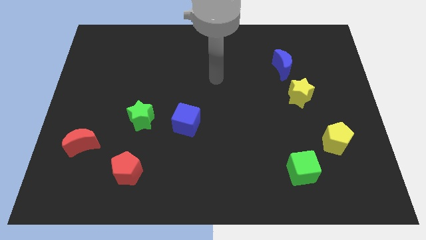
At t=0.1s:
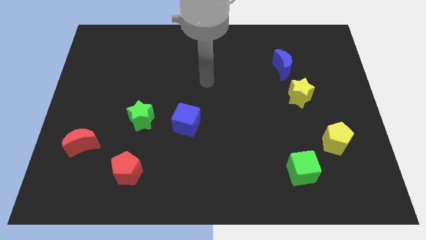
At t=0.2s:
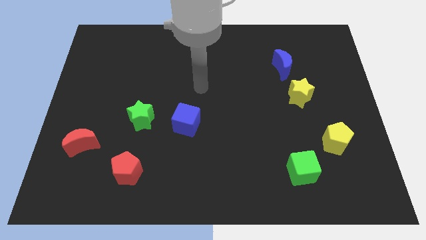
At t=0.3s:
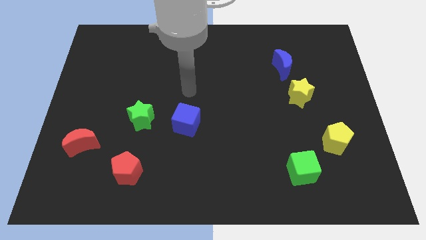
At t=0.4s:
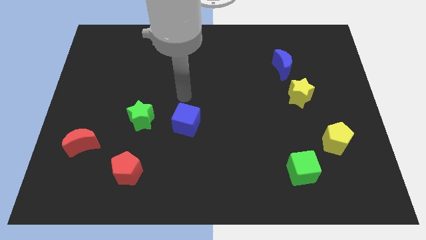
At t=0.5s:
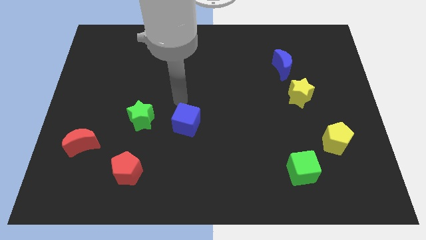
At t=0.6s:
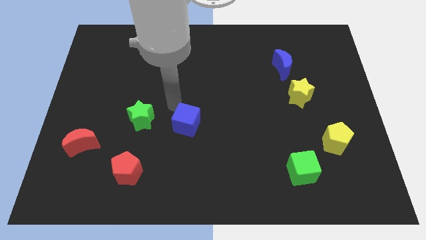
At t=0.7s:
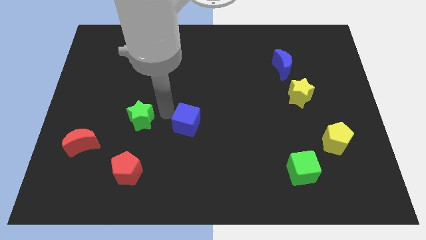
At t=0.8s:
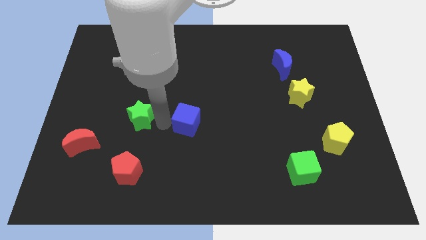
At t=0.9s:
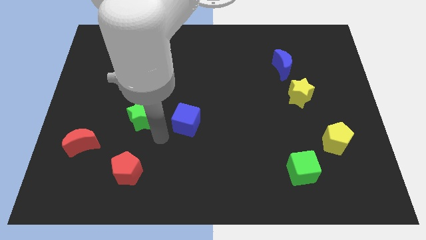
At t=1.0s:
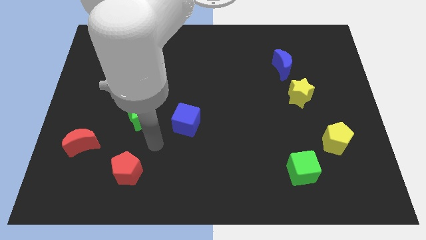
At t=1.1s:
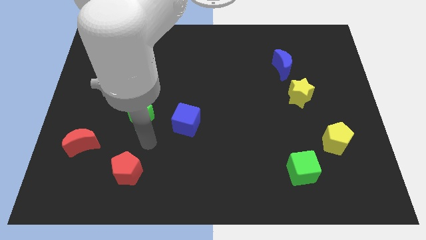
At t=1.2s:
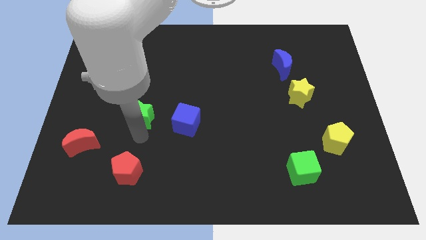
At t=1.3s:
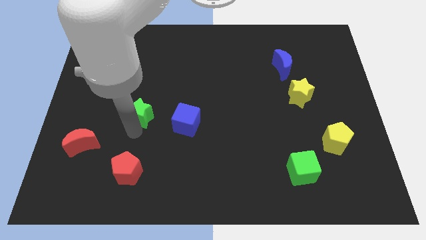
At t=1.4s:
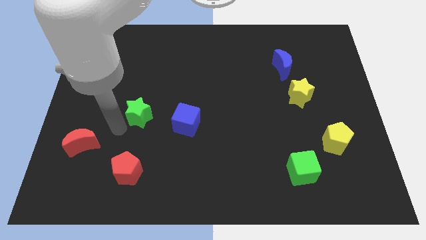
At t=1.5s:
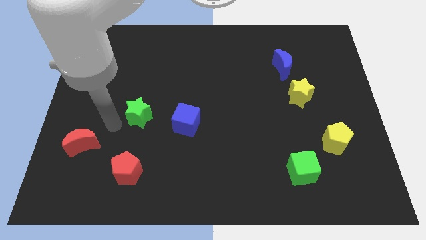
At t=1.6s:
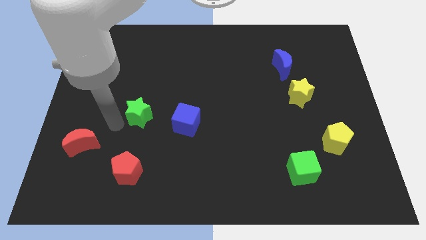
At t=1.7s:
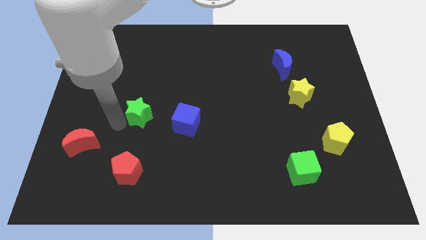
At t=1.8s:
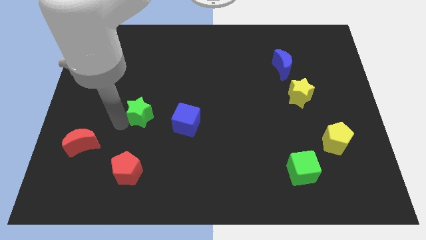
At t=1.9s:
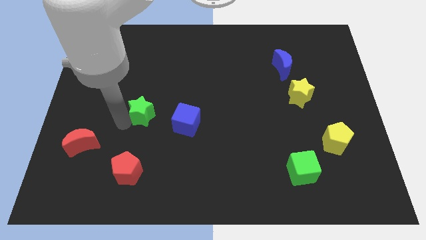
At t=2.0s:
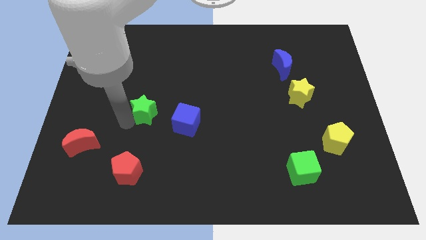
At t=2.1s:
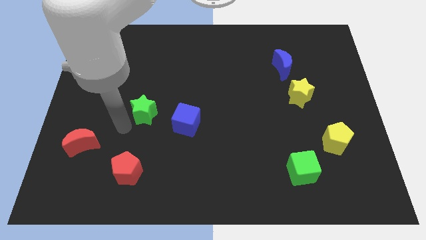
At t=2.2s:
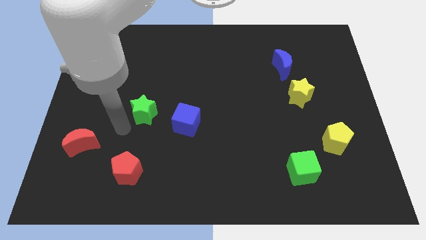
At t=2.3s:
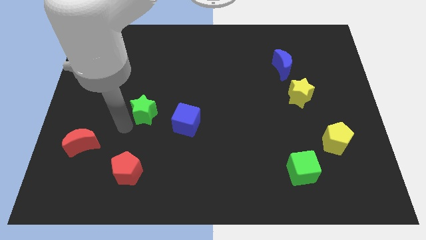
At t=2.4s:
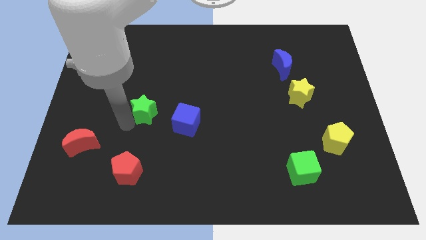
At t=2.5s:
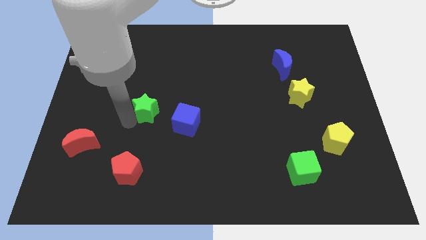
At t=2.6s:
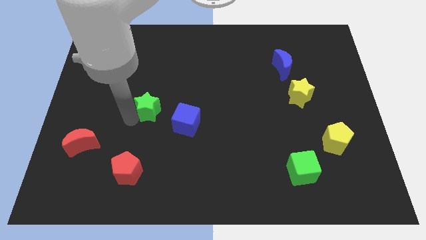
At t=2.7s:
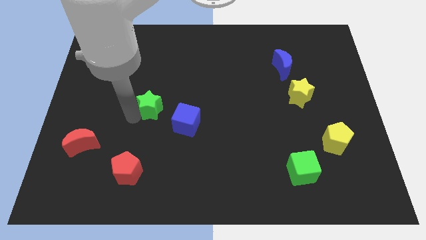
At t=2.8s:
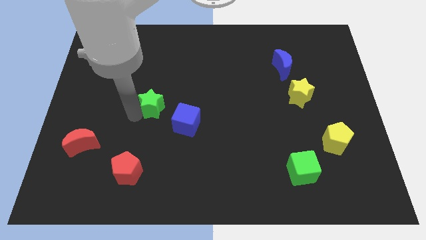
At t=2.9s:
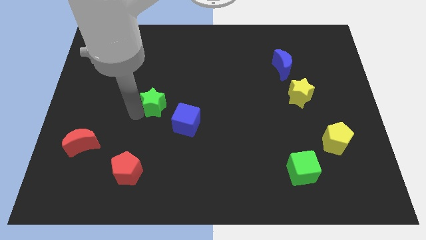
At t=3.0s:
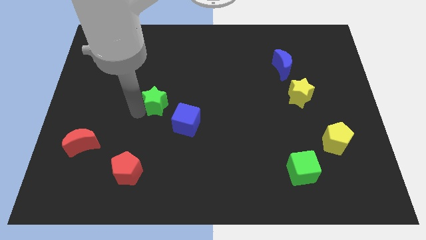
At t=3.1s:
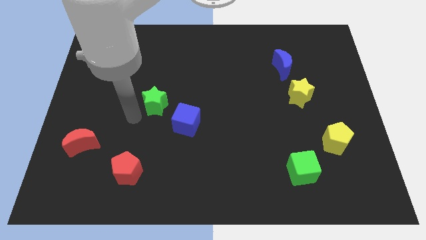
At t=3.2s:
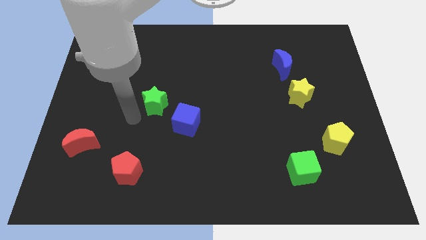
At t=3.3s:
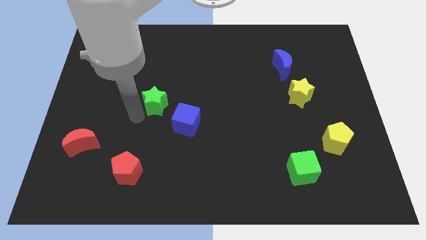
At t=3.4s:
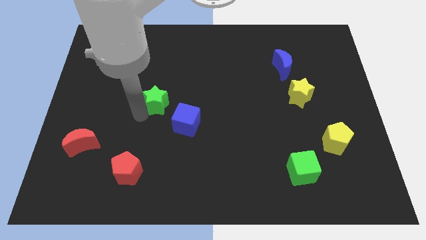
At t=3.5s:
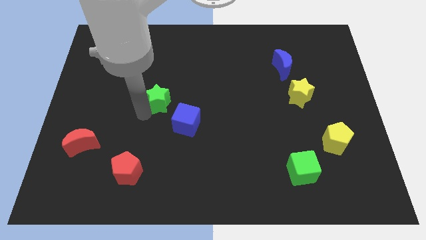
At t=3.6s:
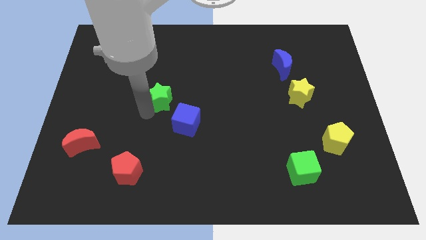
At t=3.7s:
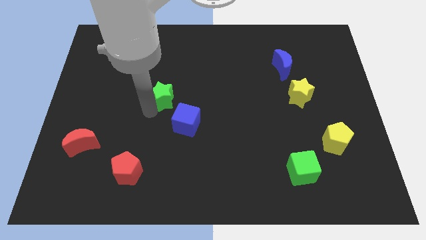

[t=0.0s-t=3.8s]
move the green star diagonally up and right slightly

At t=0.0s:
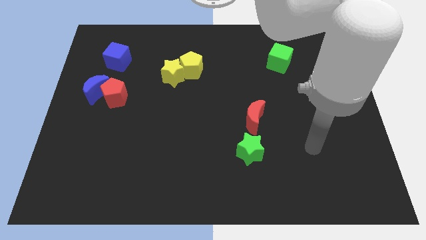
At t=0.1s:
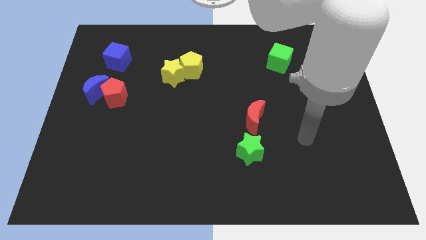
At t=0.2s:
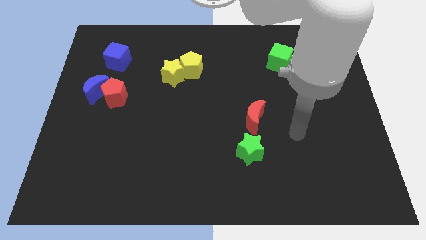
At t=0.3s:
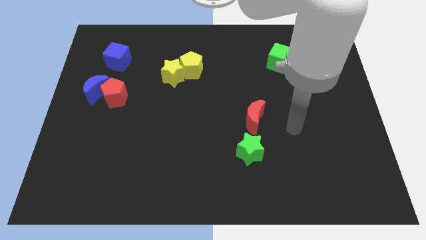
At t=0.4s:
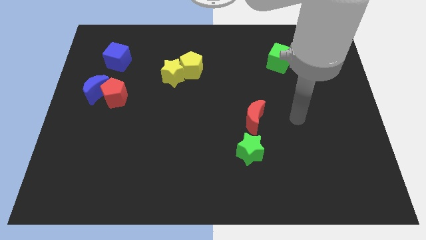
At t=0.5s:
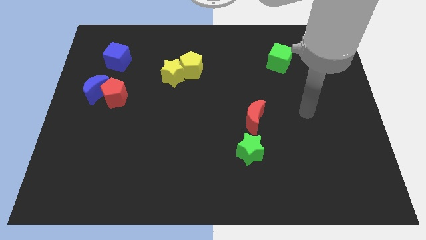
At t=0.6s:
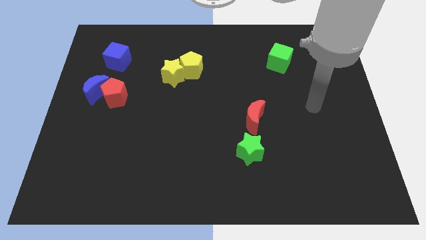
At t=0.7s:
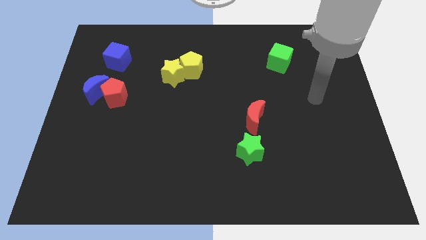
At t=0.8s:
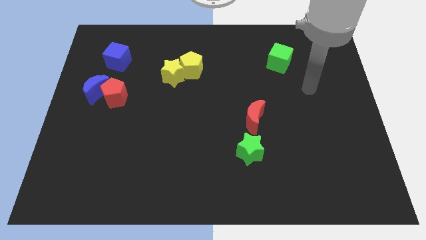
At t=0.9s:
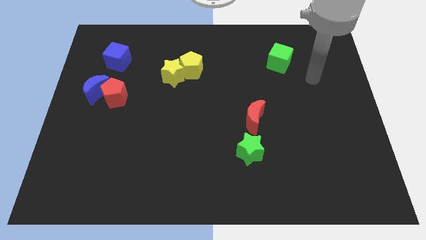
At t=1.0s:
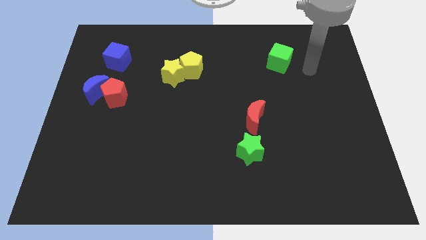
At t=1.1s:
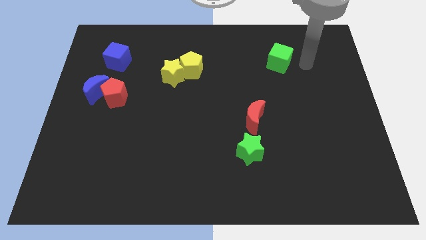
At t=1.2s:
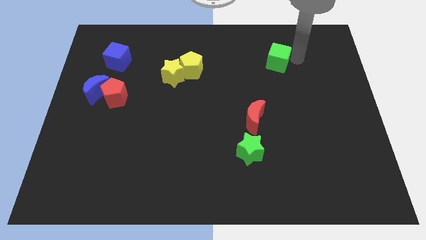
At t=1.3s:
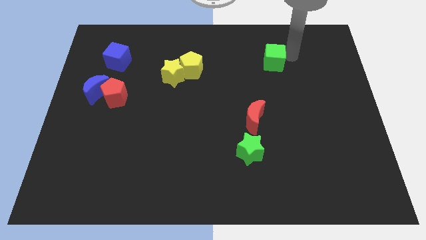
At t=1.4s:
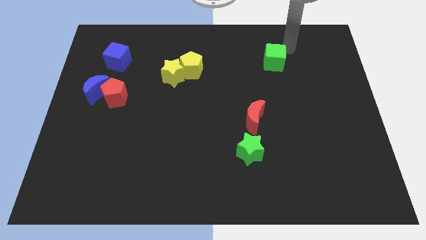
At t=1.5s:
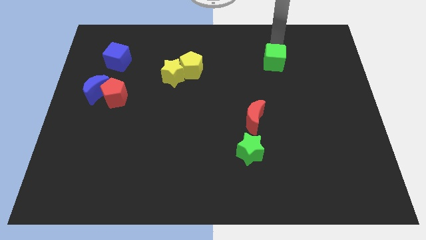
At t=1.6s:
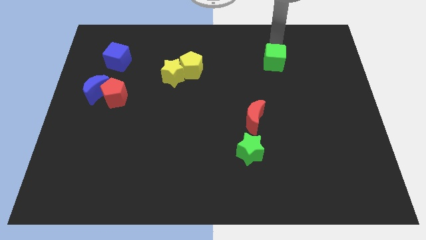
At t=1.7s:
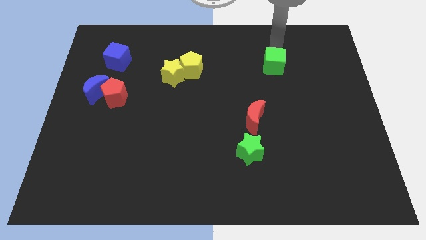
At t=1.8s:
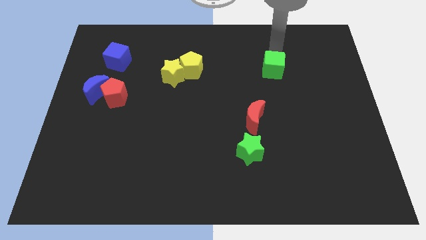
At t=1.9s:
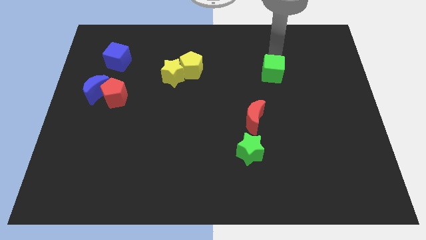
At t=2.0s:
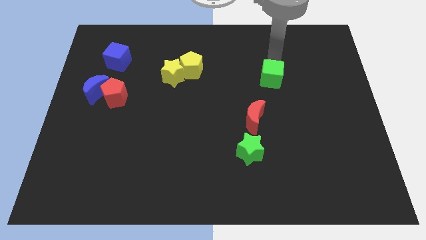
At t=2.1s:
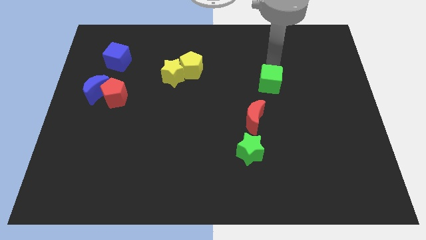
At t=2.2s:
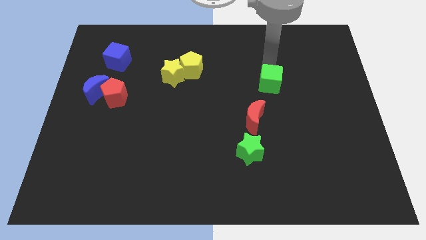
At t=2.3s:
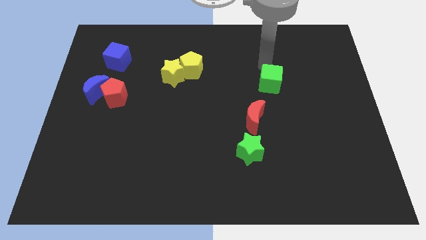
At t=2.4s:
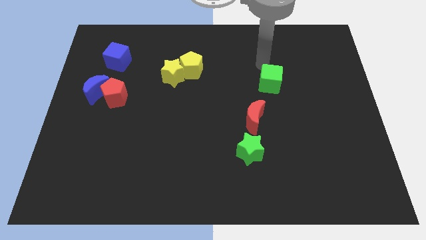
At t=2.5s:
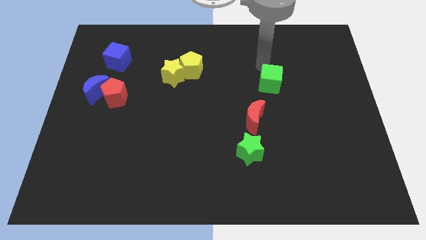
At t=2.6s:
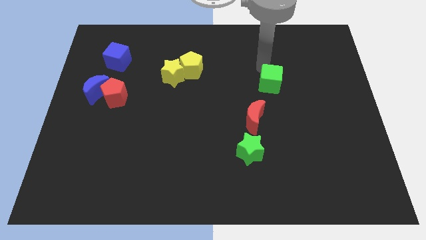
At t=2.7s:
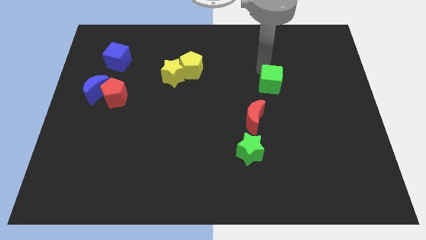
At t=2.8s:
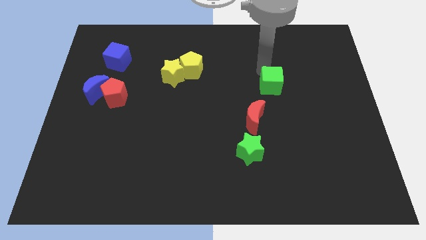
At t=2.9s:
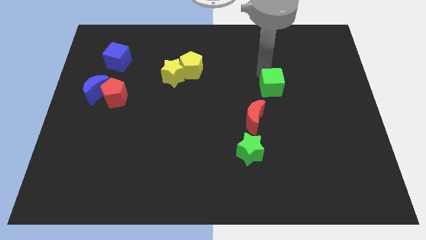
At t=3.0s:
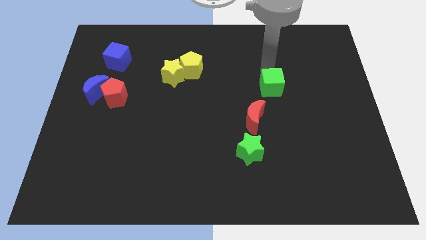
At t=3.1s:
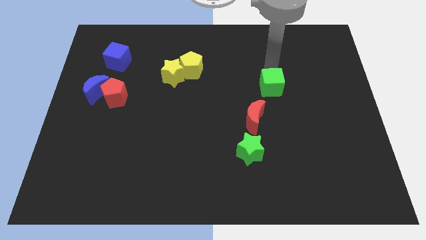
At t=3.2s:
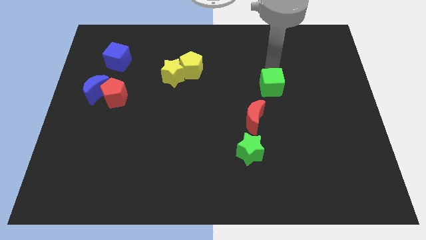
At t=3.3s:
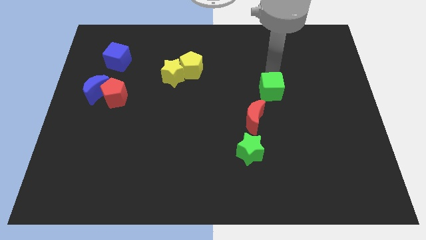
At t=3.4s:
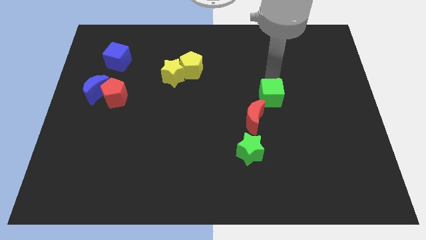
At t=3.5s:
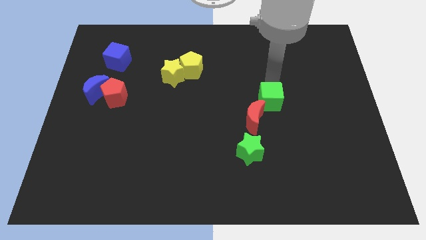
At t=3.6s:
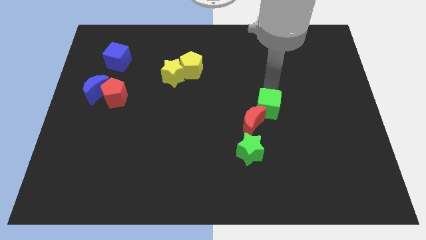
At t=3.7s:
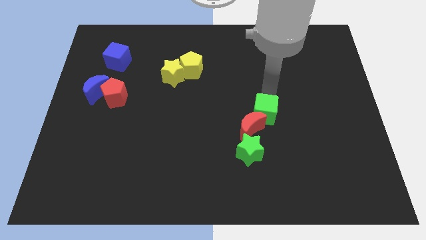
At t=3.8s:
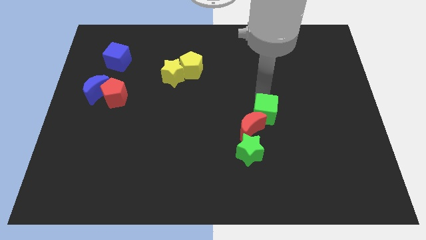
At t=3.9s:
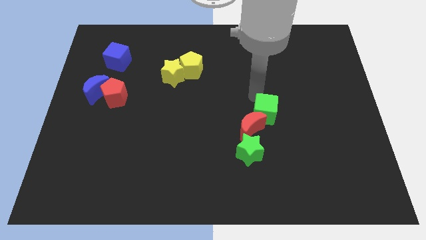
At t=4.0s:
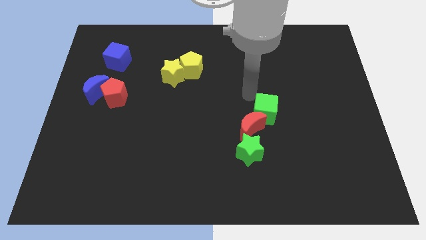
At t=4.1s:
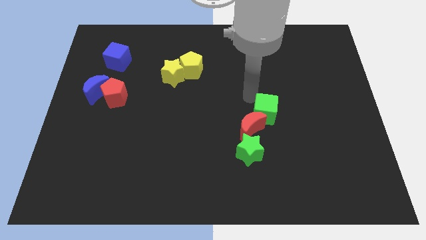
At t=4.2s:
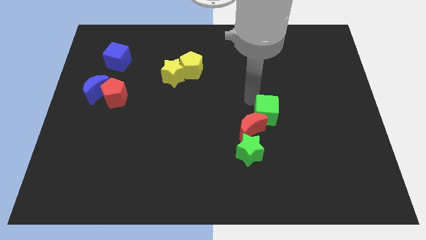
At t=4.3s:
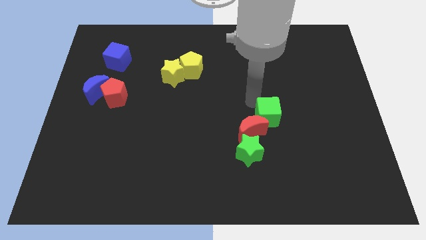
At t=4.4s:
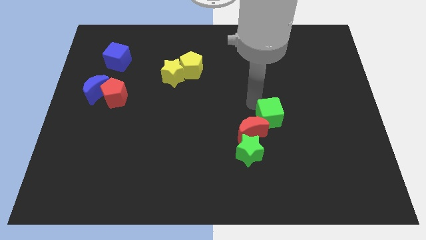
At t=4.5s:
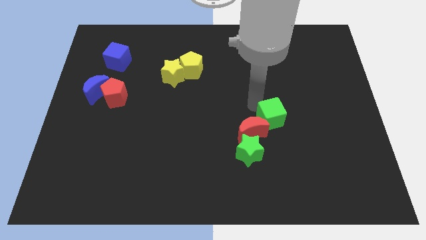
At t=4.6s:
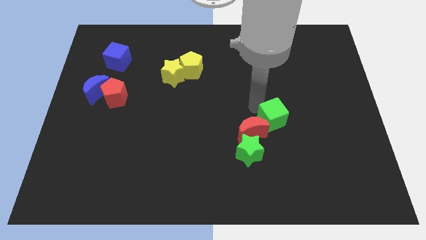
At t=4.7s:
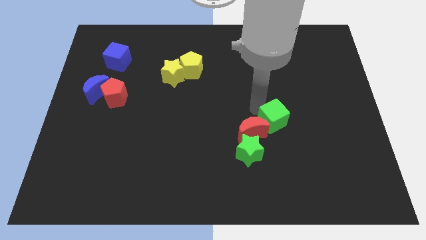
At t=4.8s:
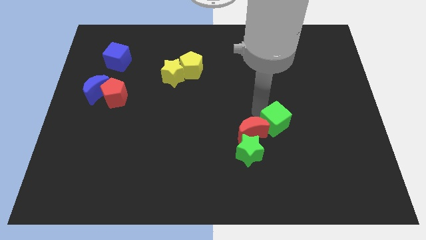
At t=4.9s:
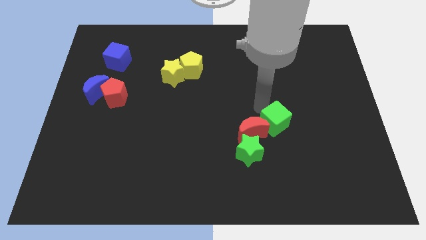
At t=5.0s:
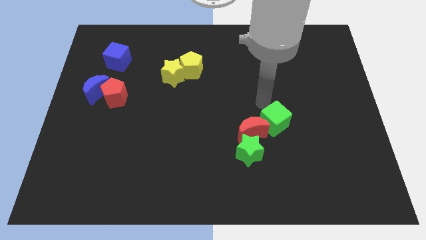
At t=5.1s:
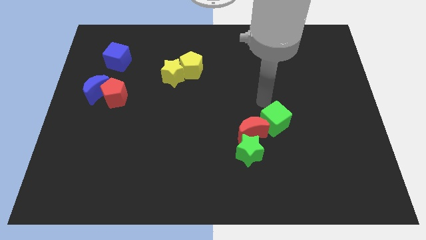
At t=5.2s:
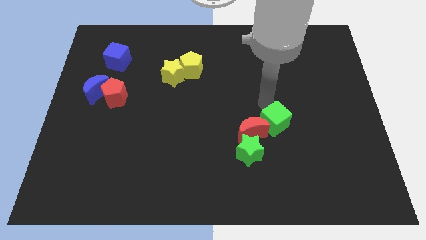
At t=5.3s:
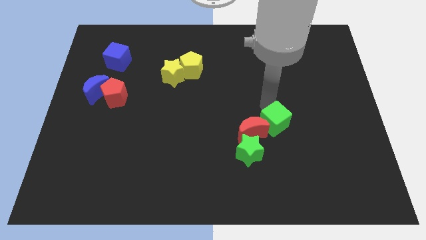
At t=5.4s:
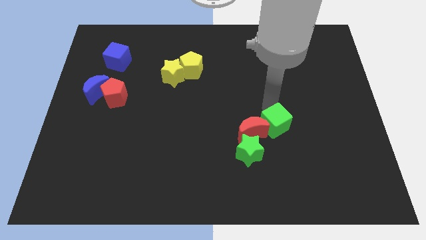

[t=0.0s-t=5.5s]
push the green cube down
